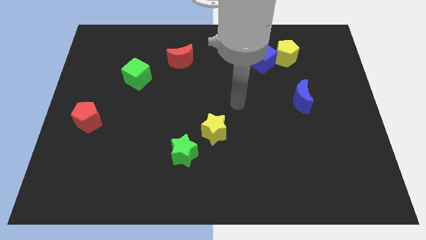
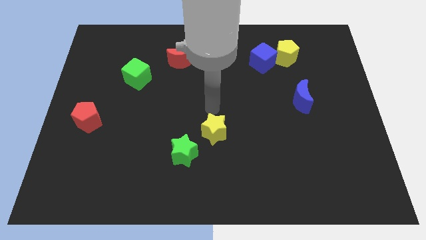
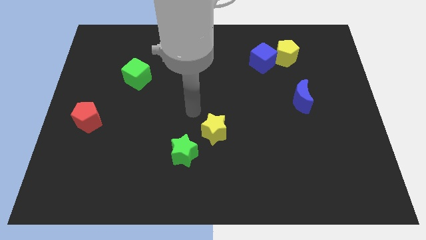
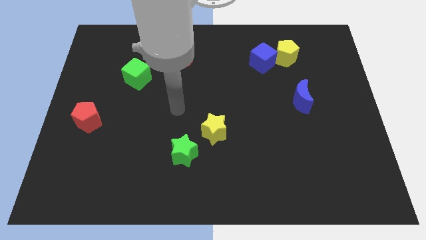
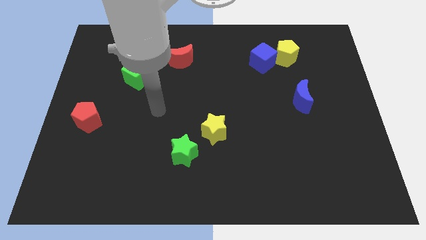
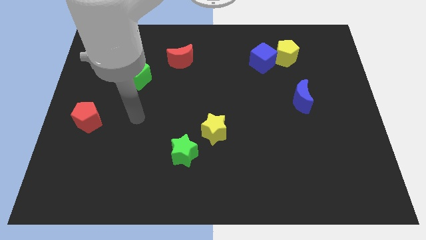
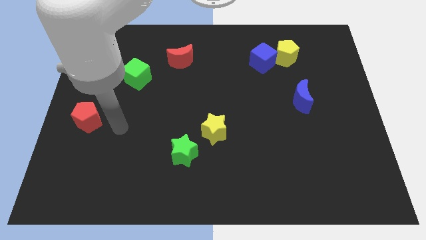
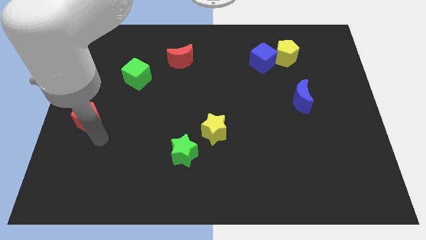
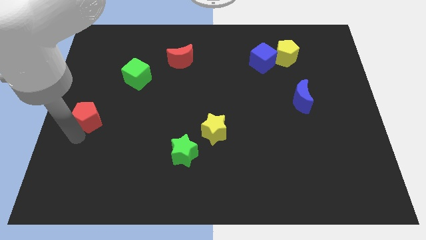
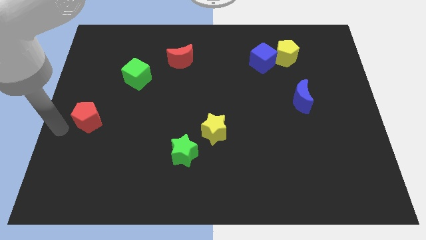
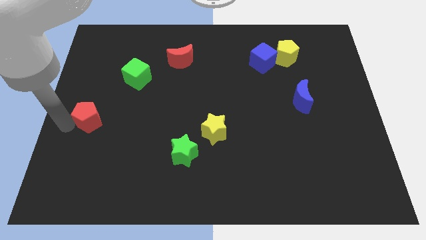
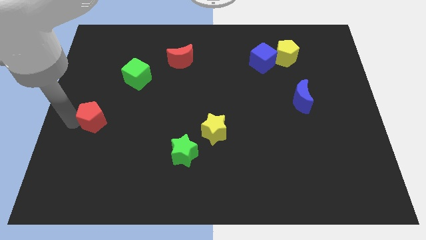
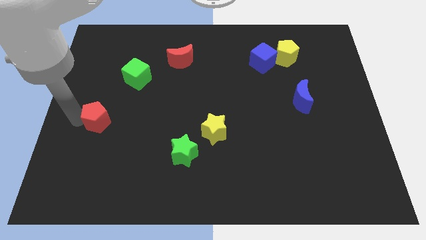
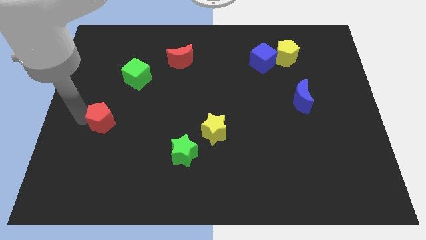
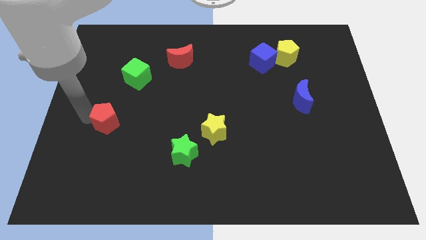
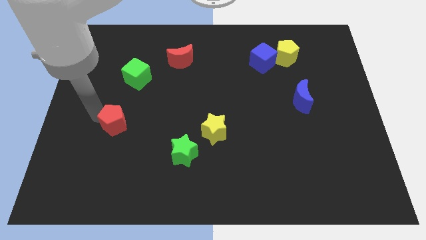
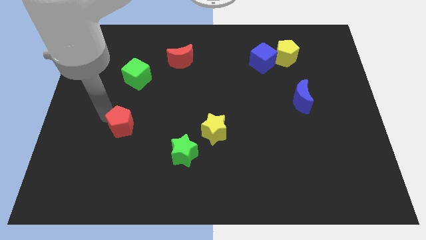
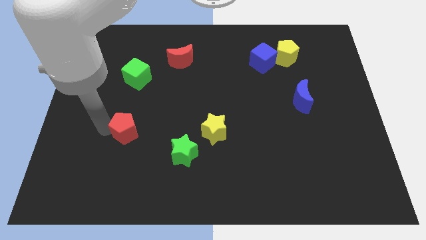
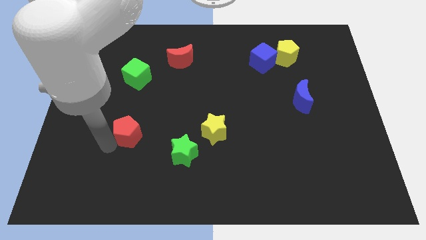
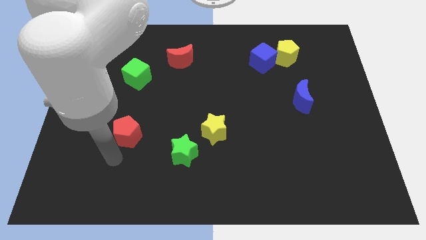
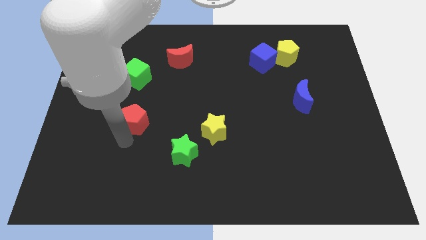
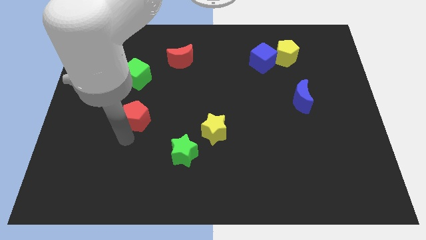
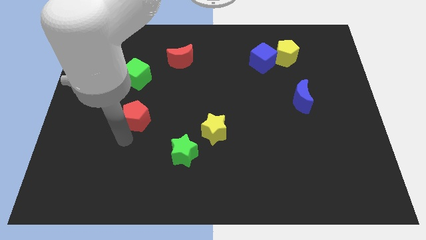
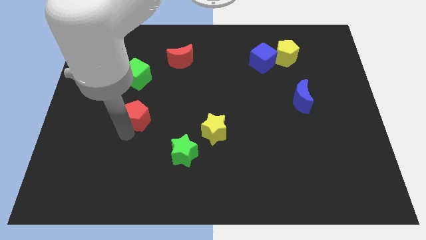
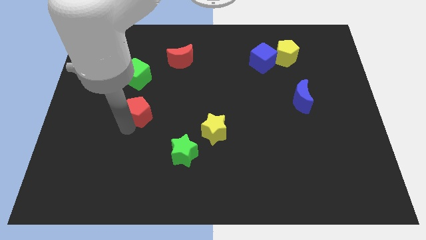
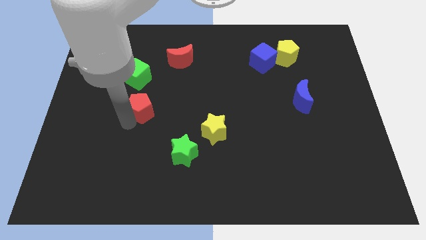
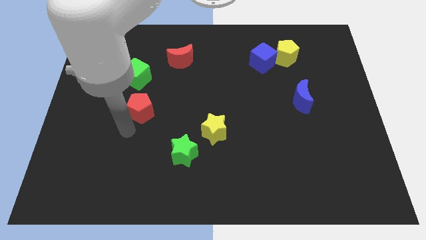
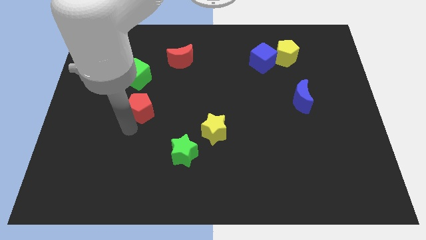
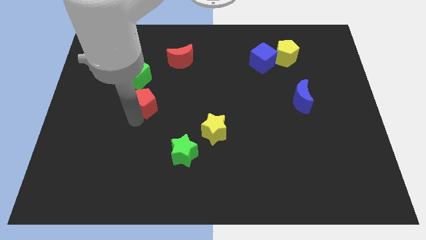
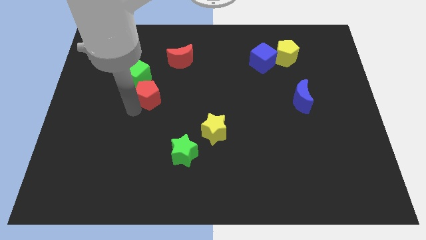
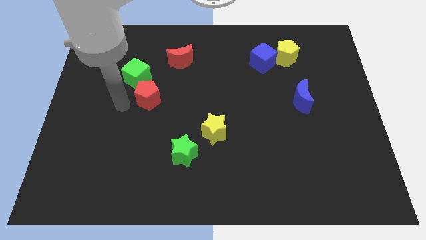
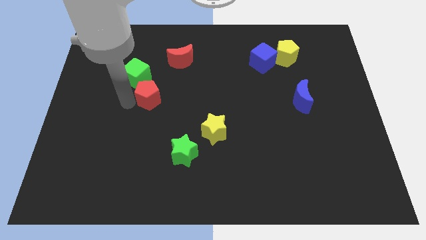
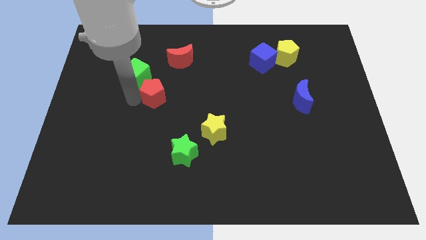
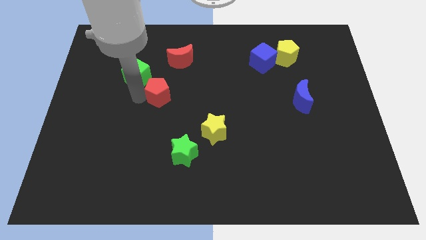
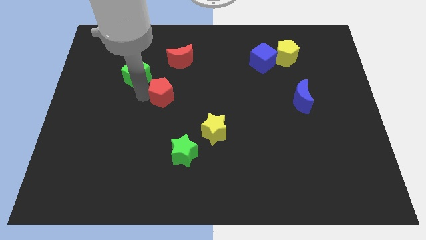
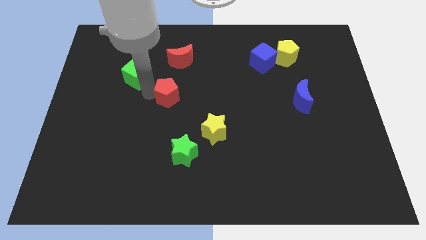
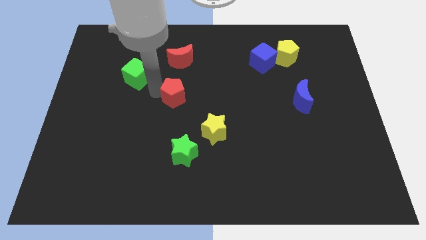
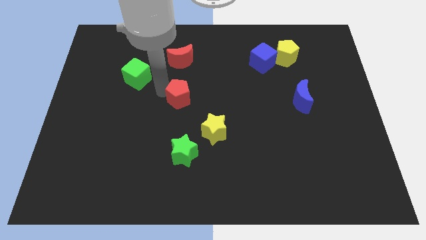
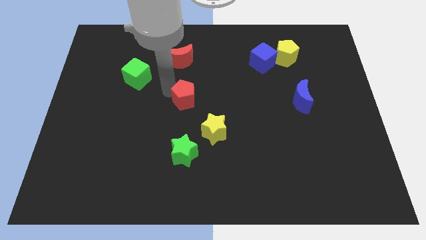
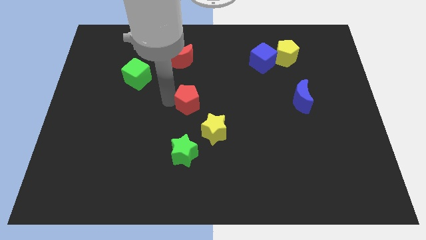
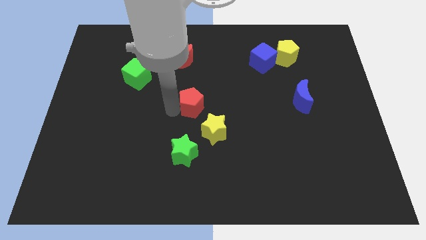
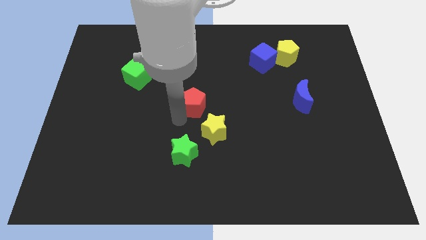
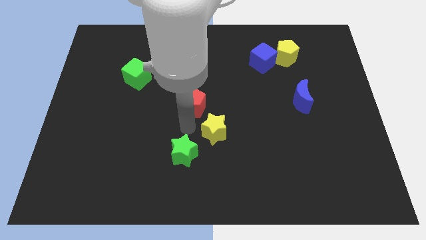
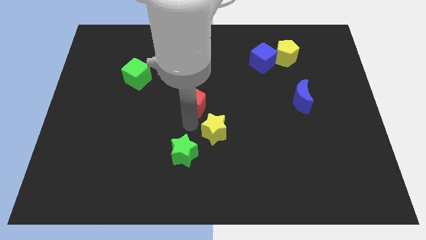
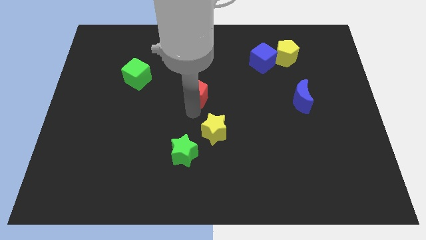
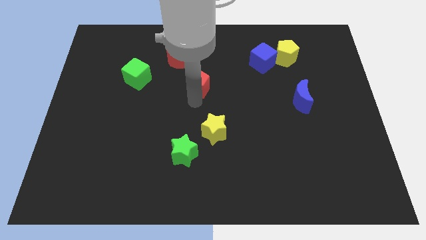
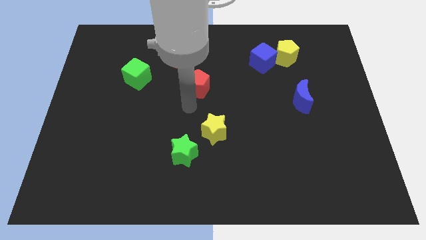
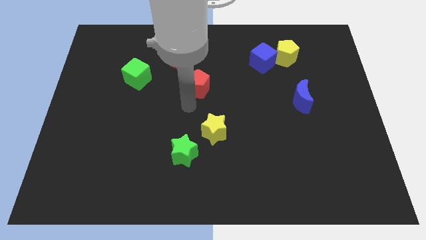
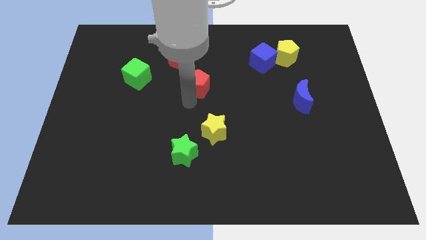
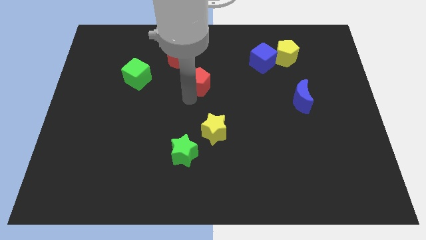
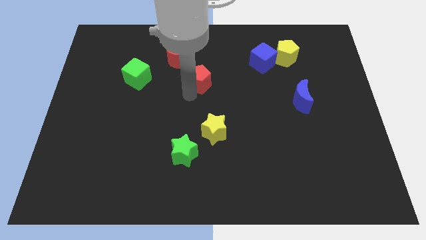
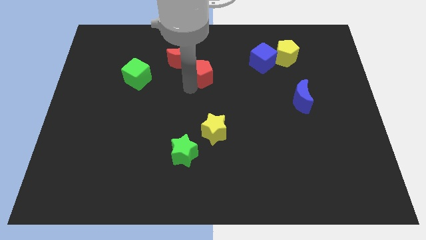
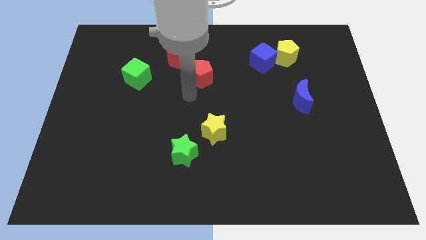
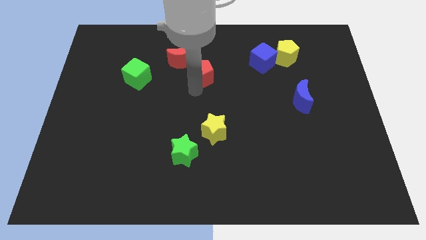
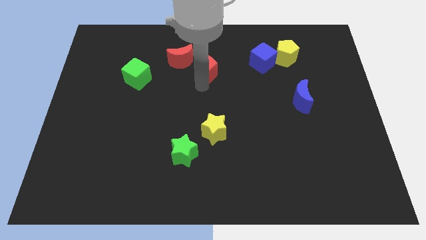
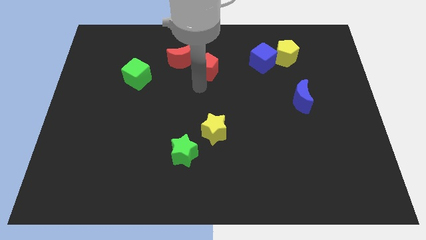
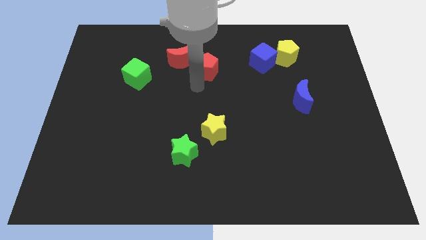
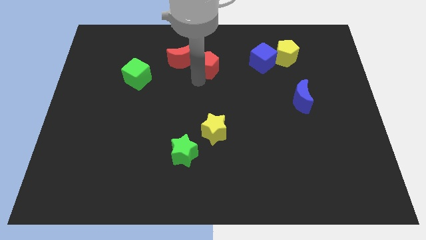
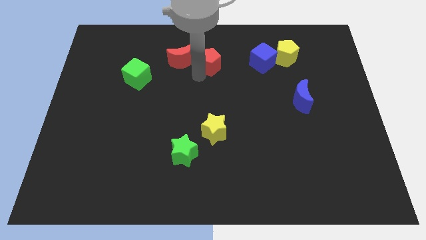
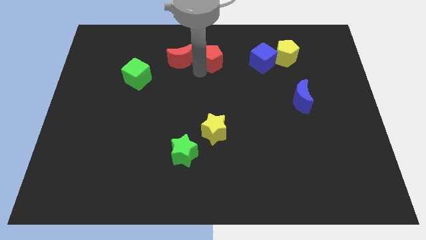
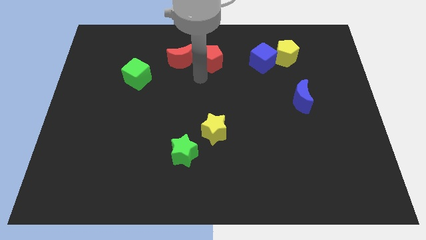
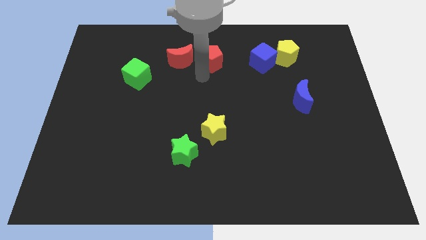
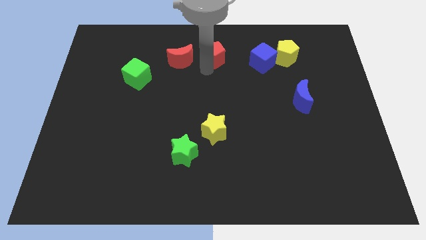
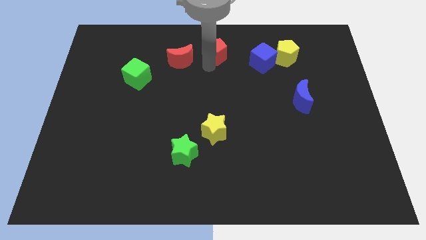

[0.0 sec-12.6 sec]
move the red pentagon to the towards your base

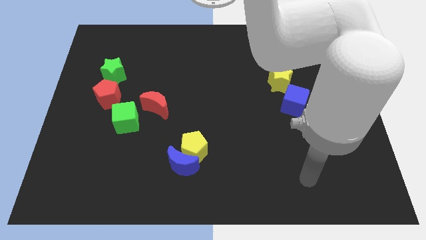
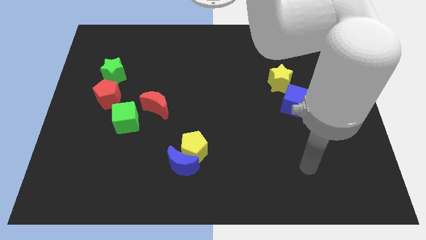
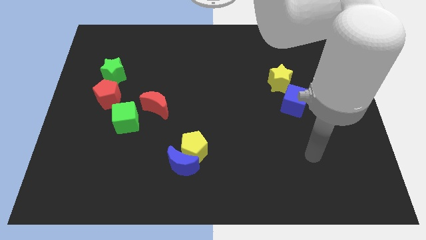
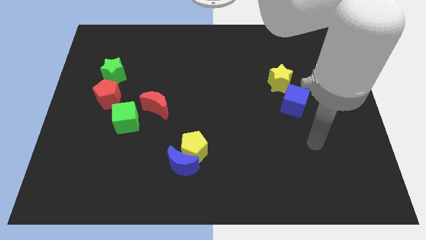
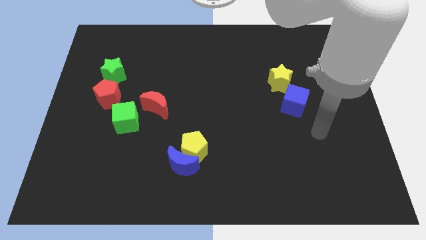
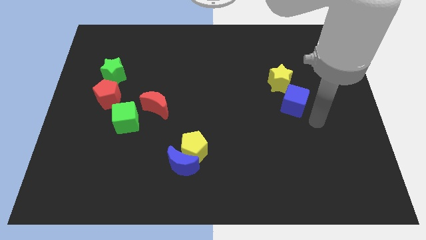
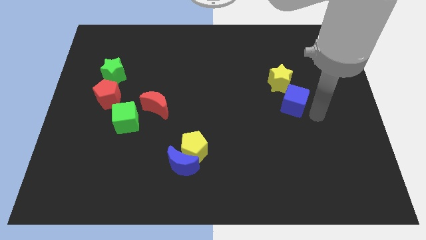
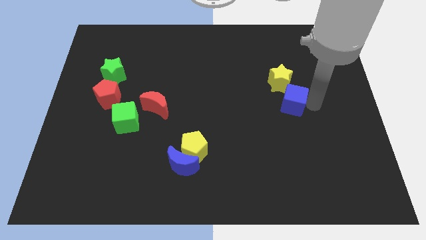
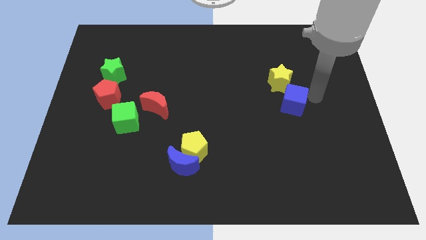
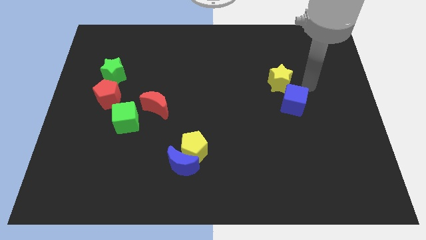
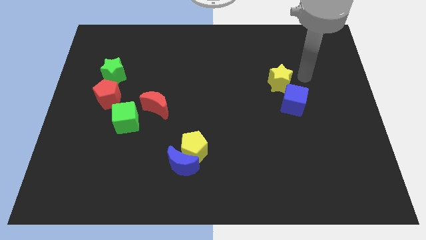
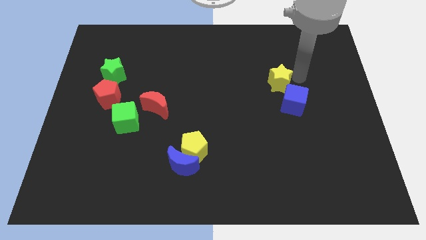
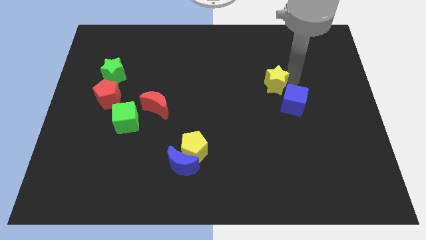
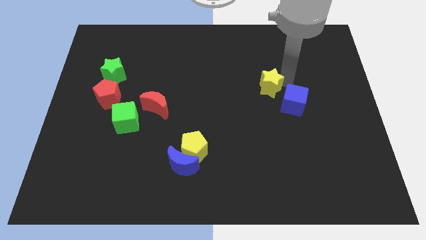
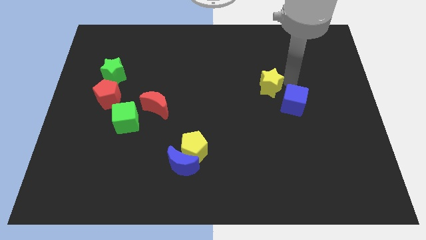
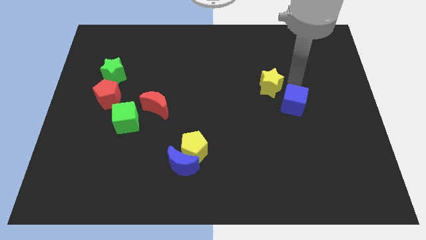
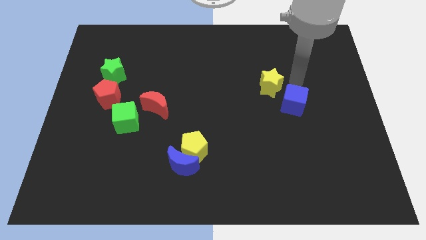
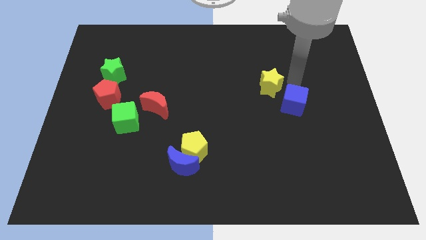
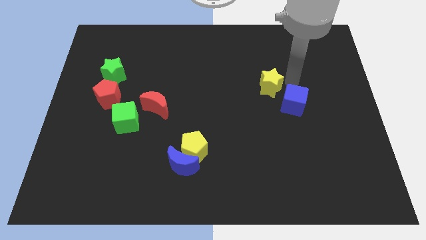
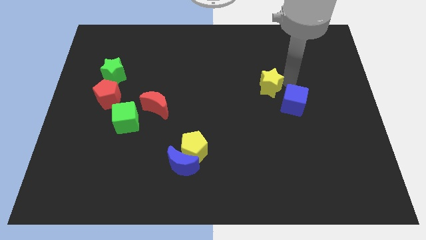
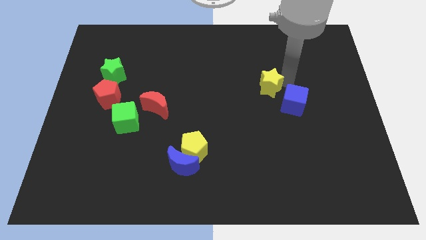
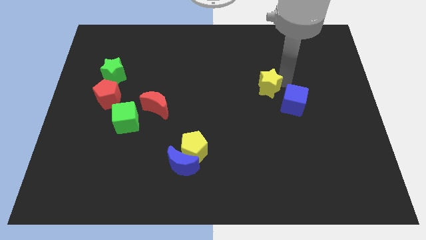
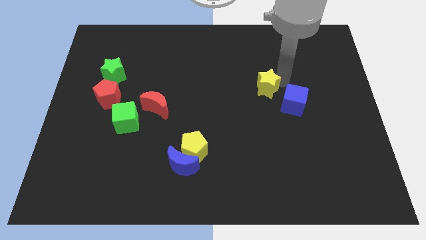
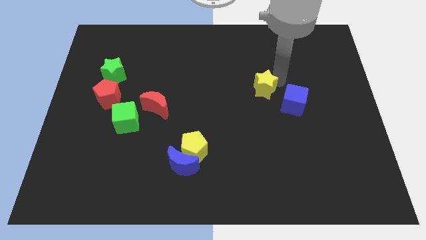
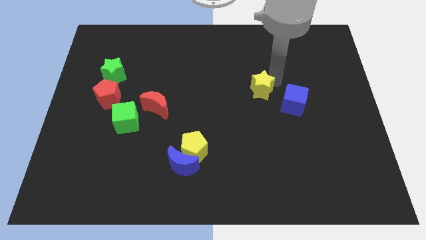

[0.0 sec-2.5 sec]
put the yellow star to the middle
